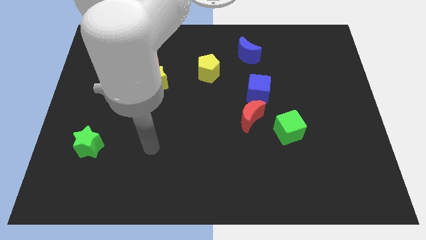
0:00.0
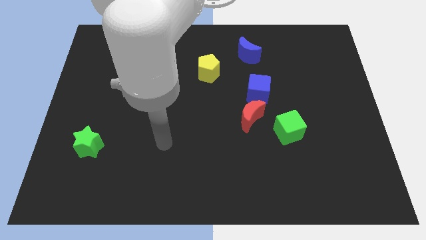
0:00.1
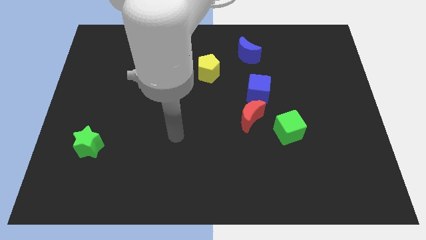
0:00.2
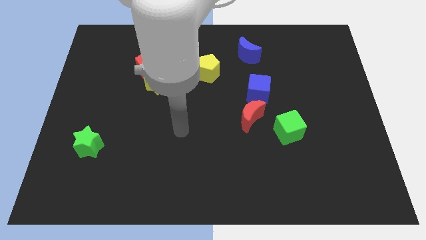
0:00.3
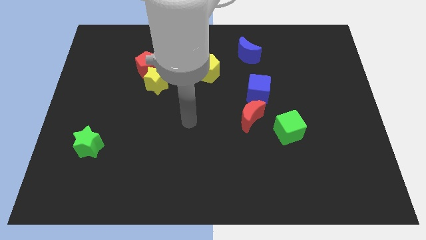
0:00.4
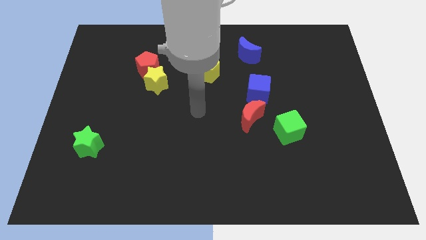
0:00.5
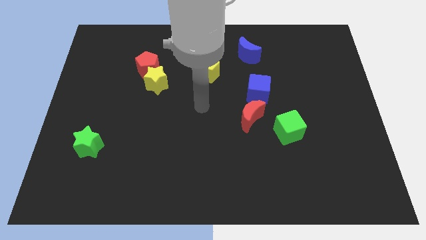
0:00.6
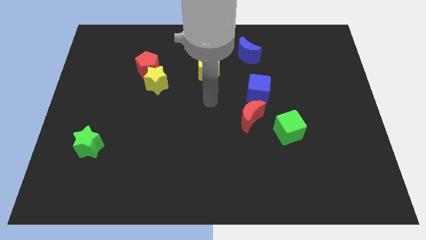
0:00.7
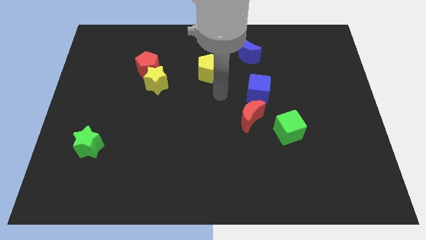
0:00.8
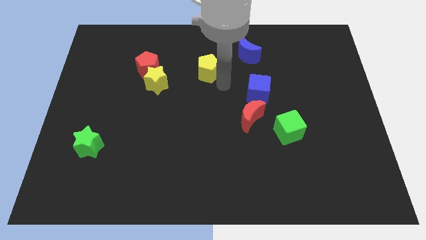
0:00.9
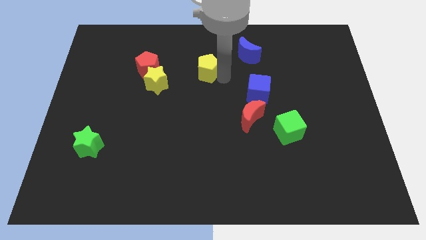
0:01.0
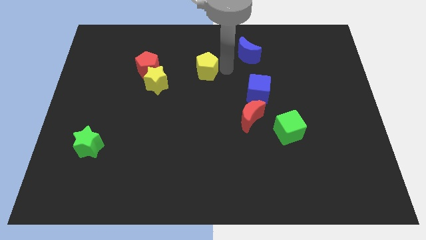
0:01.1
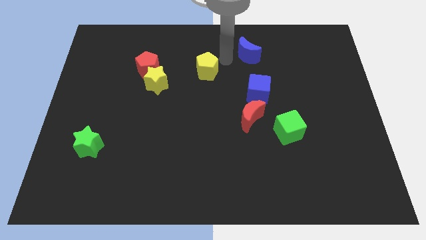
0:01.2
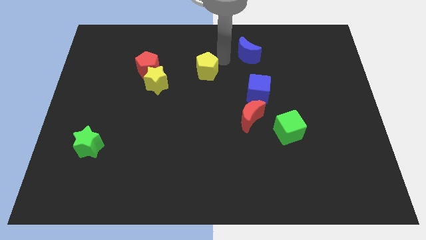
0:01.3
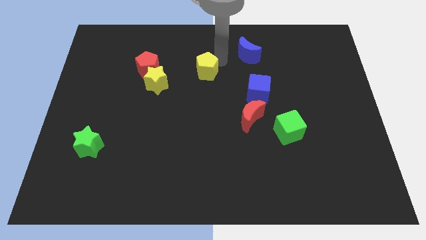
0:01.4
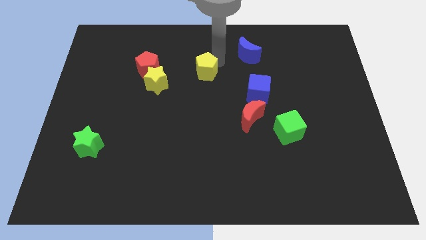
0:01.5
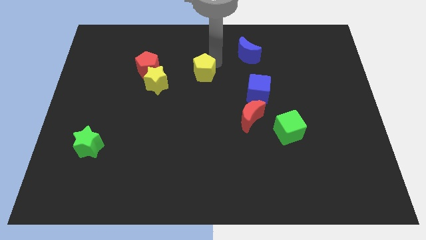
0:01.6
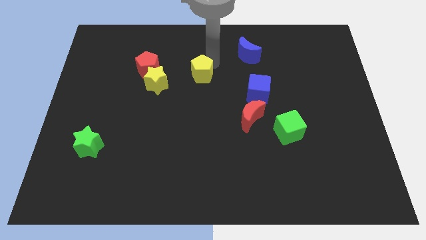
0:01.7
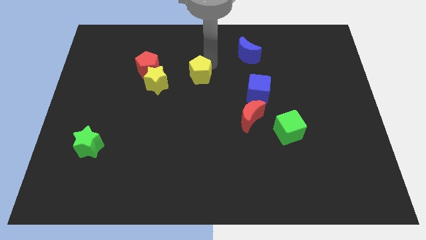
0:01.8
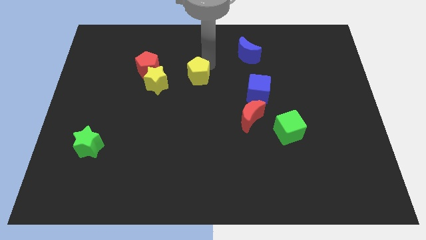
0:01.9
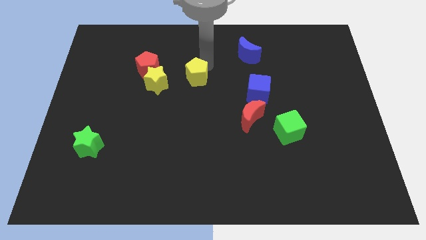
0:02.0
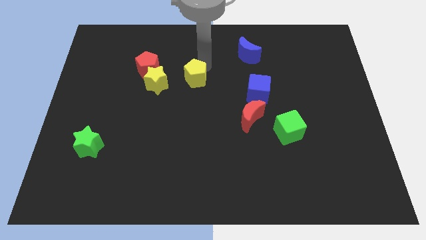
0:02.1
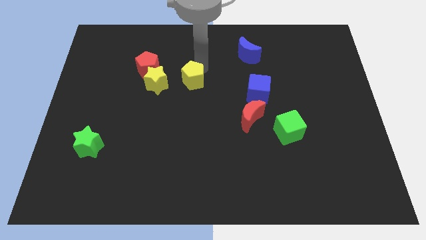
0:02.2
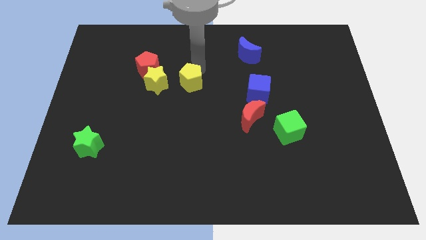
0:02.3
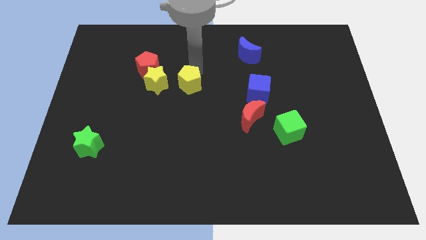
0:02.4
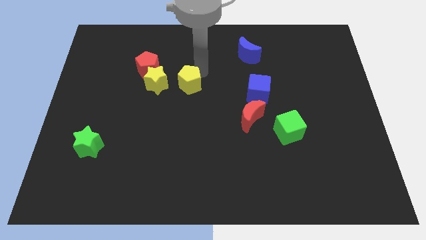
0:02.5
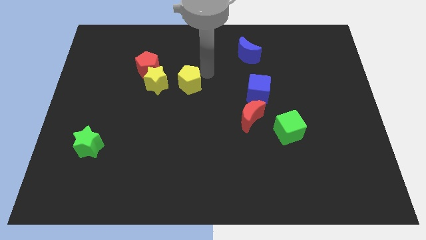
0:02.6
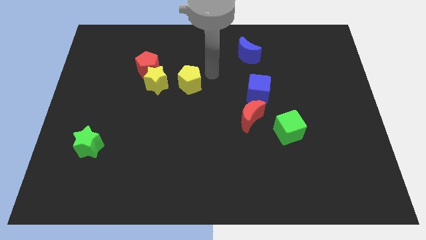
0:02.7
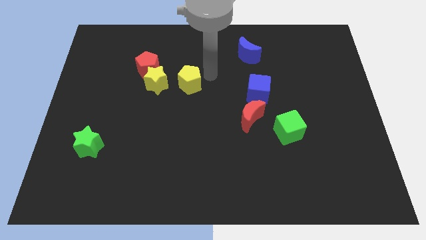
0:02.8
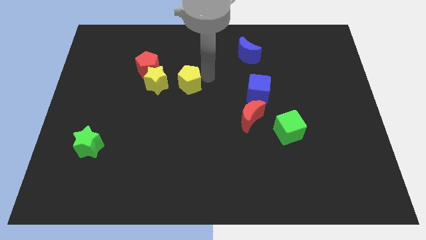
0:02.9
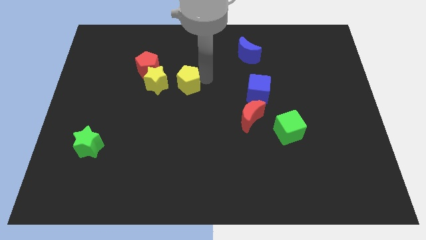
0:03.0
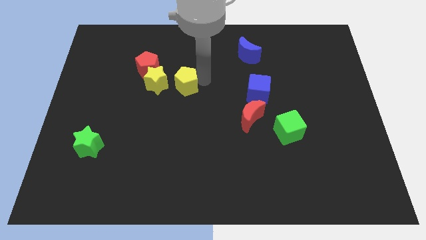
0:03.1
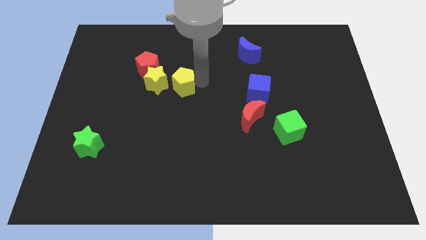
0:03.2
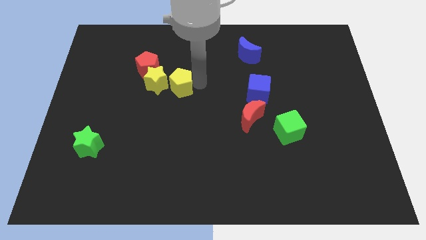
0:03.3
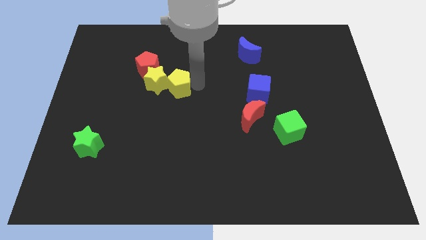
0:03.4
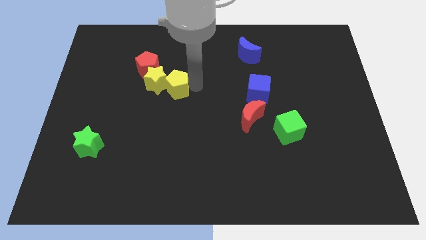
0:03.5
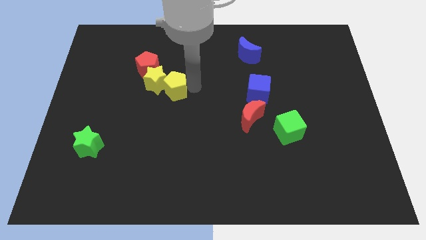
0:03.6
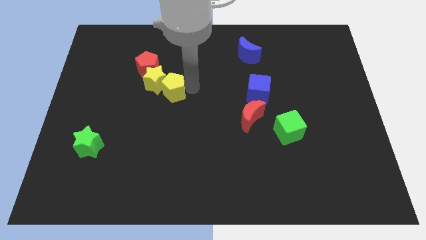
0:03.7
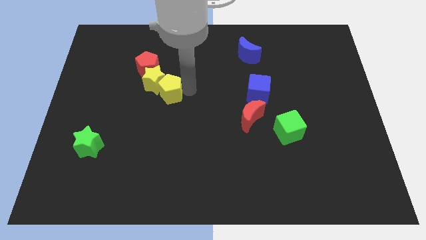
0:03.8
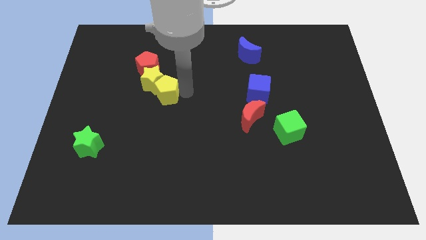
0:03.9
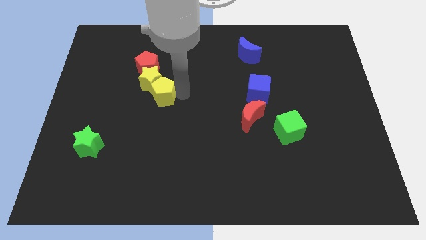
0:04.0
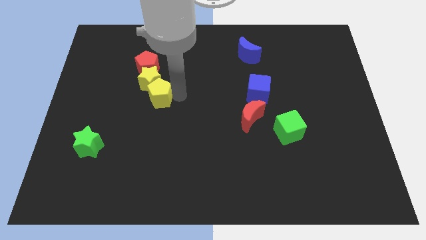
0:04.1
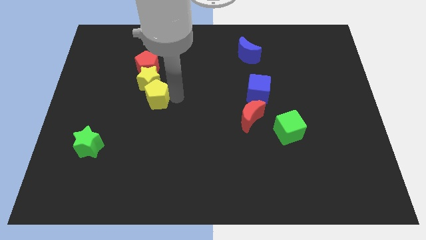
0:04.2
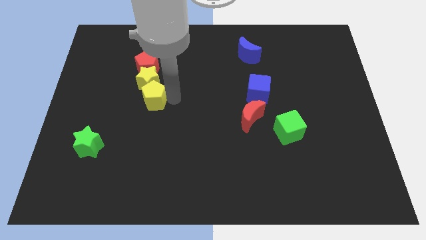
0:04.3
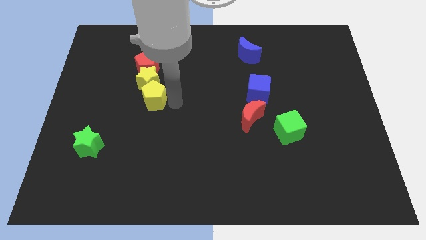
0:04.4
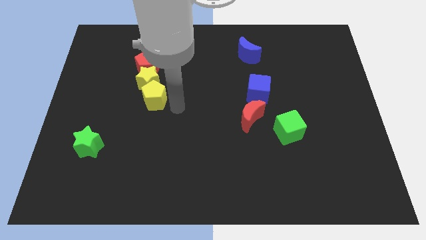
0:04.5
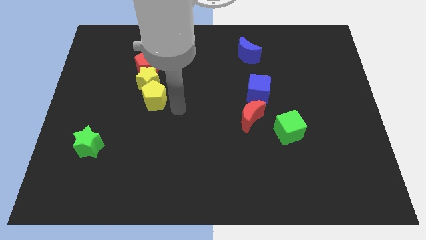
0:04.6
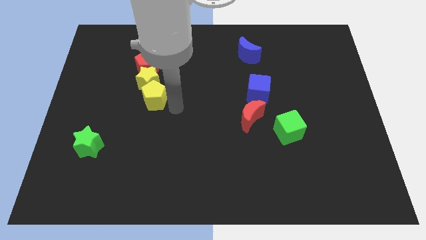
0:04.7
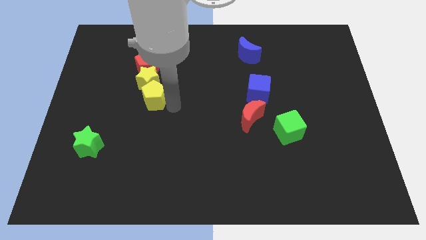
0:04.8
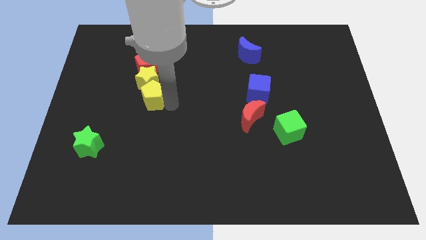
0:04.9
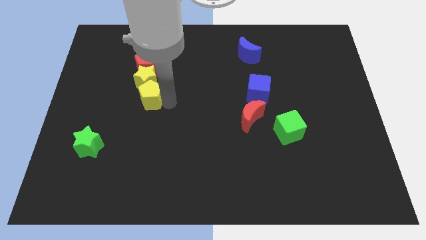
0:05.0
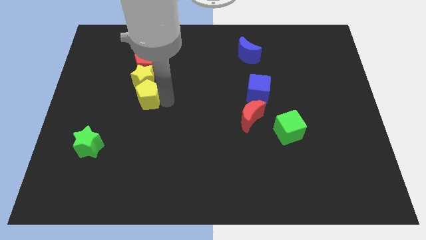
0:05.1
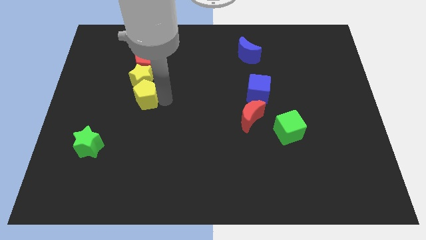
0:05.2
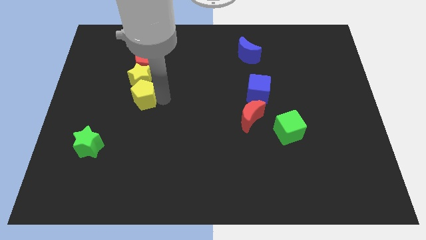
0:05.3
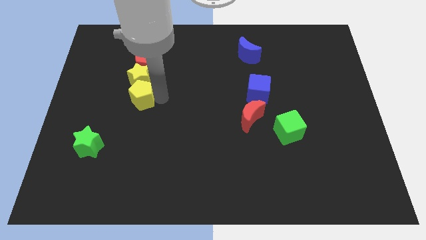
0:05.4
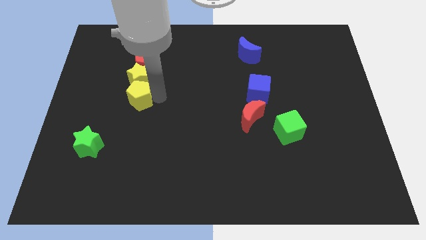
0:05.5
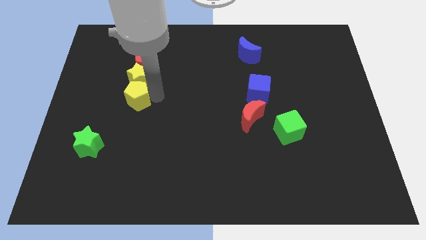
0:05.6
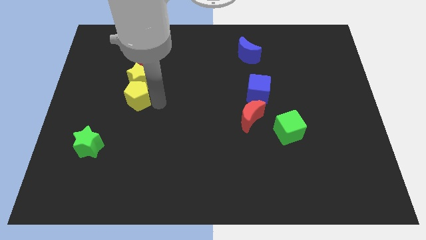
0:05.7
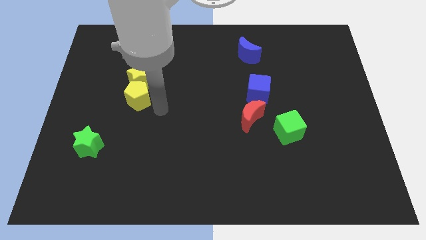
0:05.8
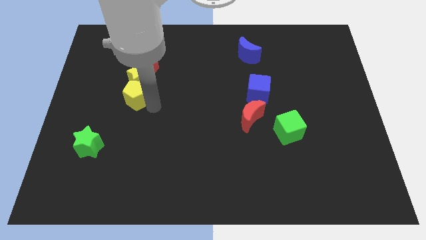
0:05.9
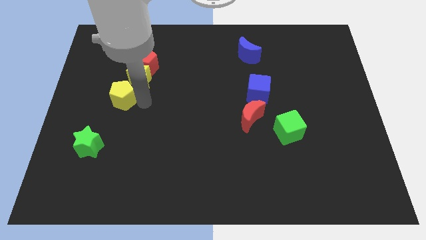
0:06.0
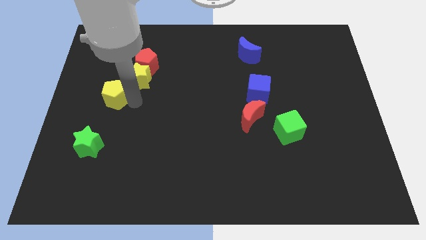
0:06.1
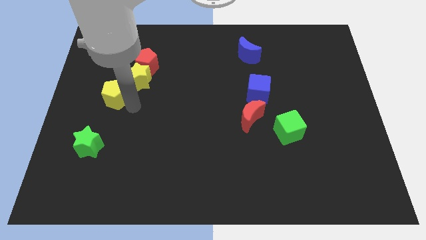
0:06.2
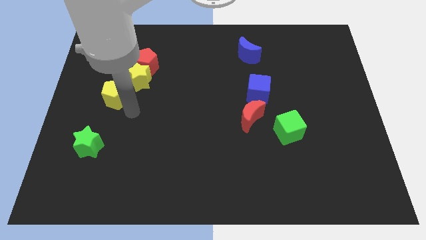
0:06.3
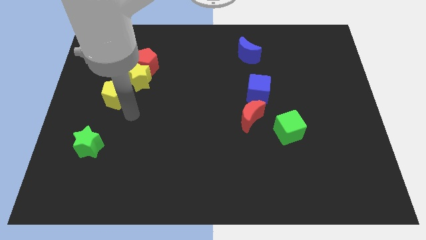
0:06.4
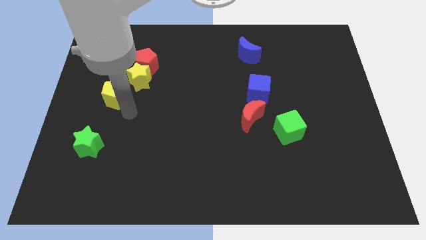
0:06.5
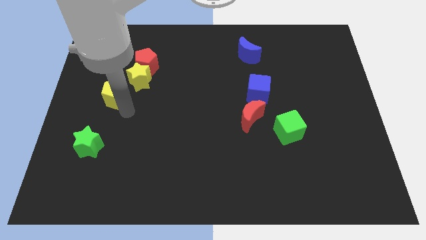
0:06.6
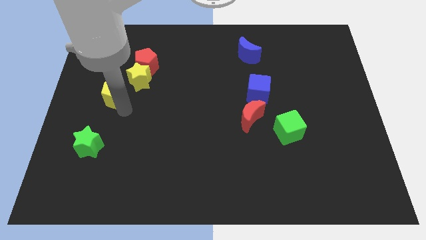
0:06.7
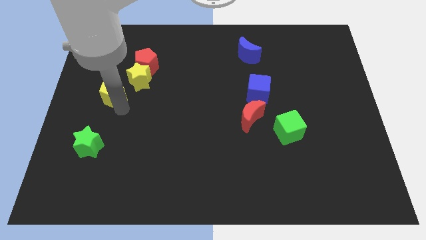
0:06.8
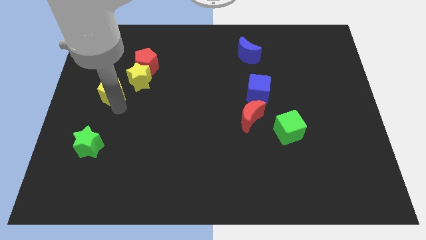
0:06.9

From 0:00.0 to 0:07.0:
slide the yellow pentagon to the left of the yellow star

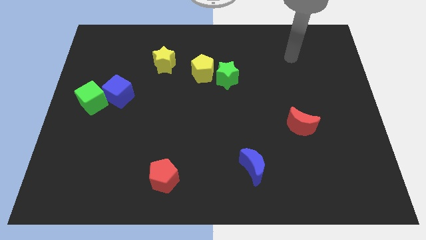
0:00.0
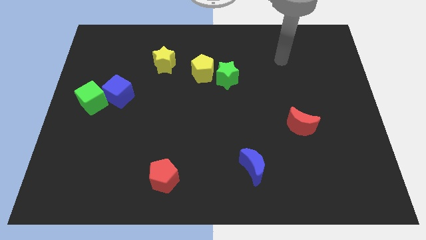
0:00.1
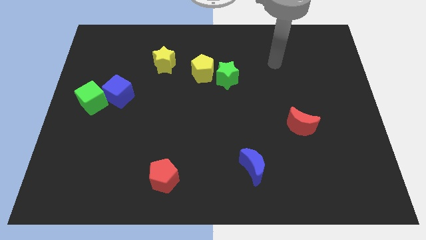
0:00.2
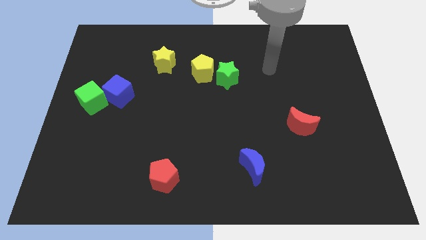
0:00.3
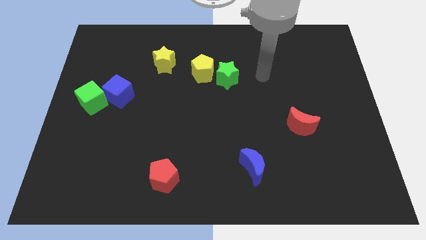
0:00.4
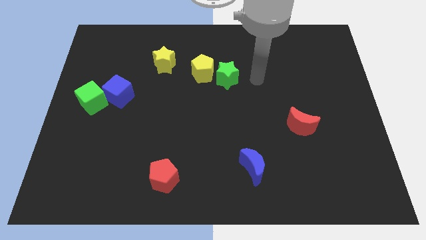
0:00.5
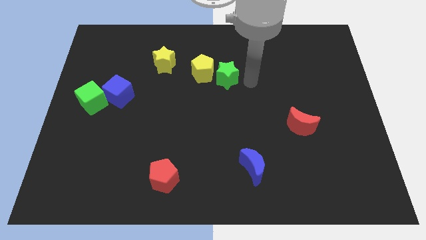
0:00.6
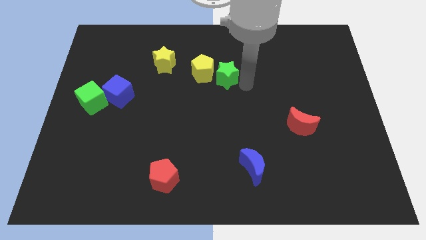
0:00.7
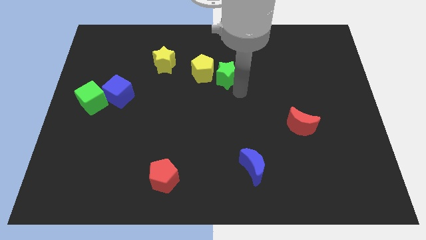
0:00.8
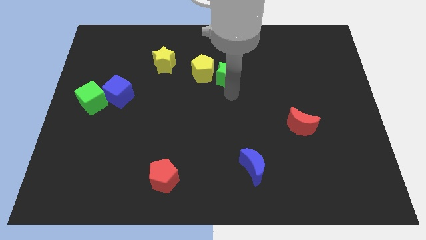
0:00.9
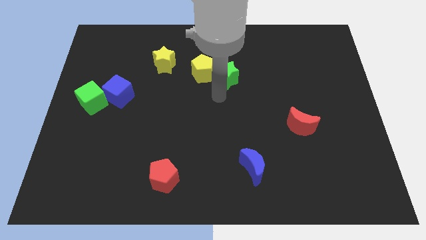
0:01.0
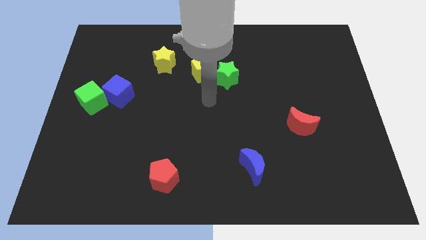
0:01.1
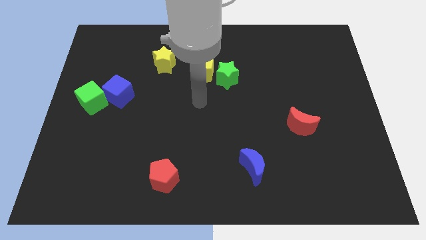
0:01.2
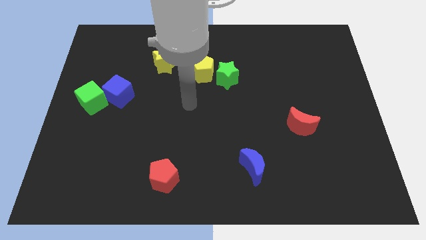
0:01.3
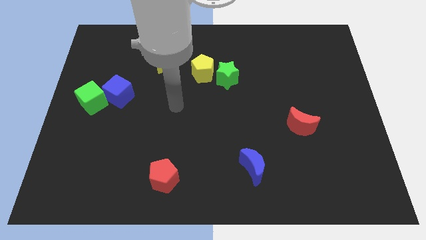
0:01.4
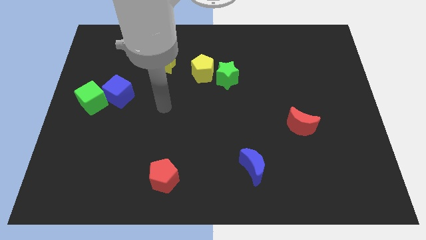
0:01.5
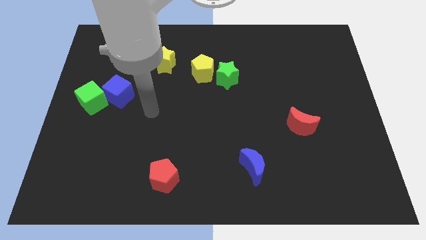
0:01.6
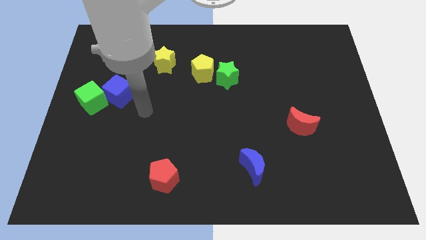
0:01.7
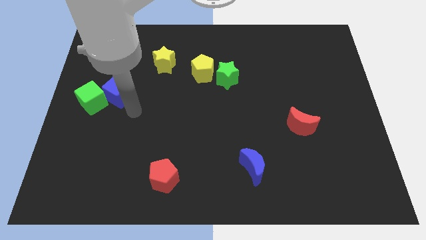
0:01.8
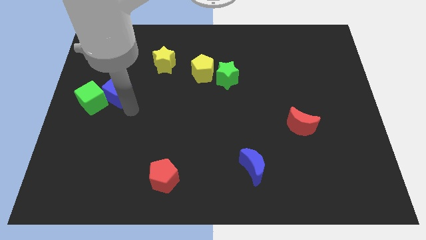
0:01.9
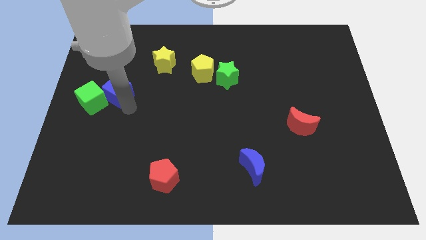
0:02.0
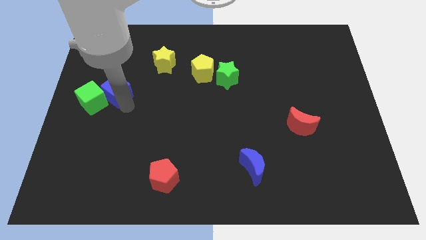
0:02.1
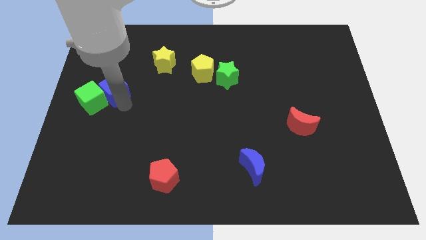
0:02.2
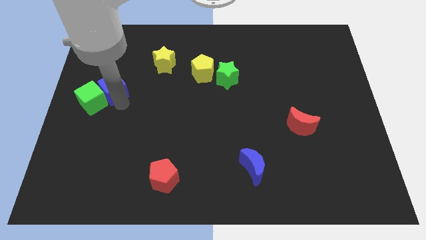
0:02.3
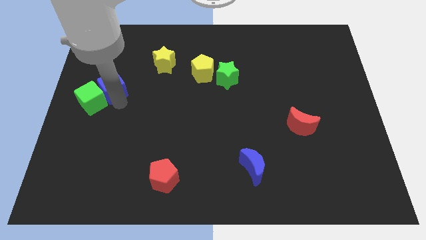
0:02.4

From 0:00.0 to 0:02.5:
put the blue cube to the top of the green cube
